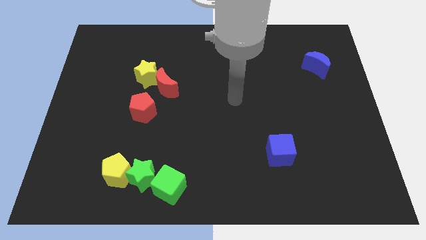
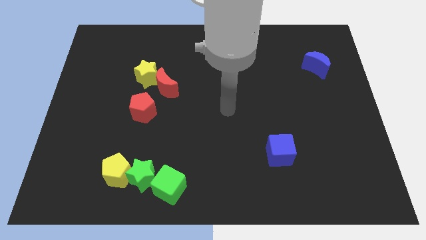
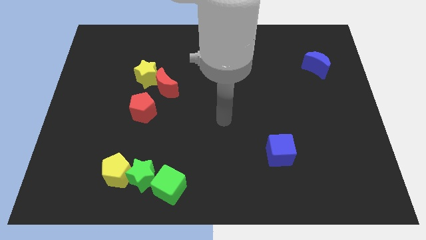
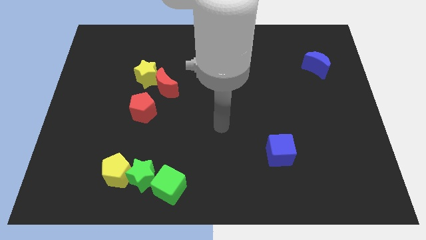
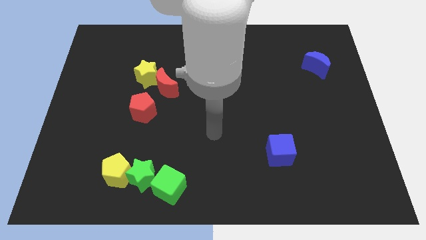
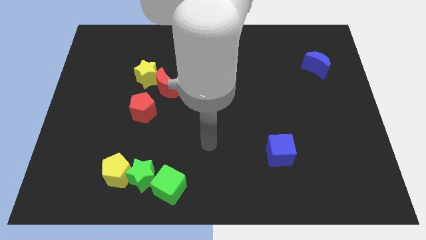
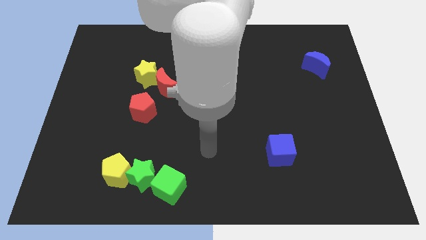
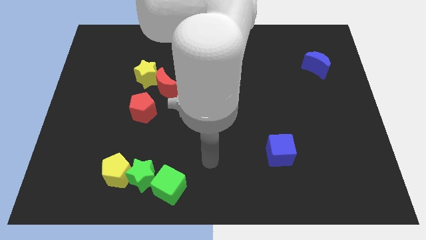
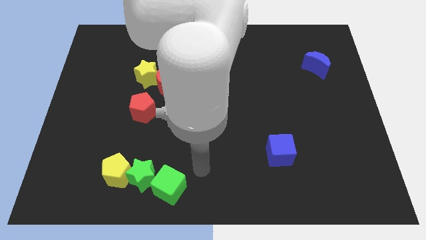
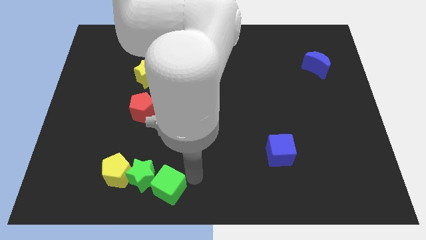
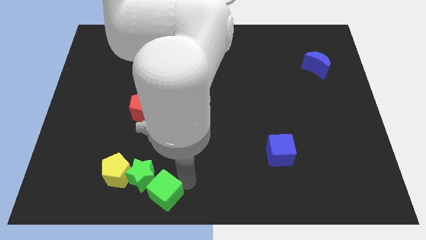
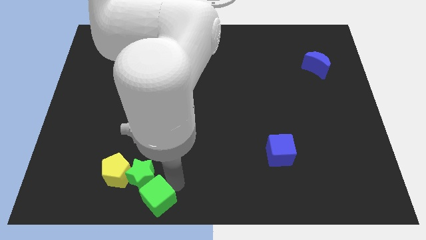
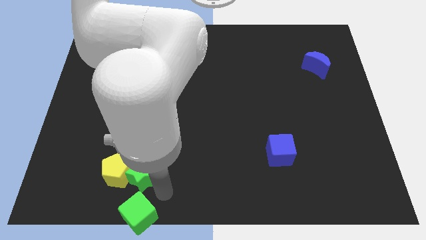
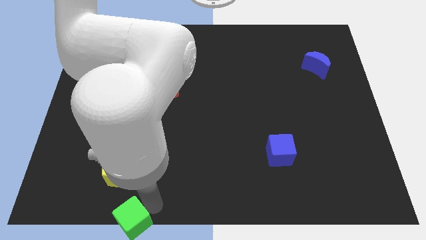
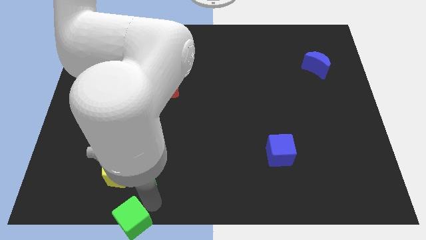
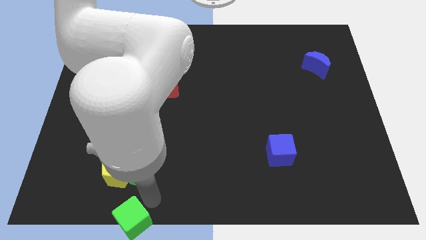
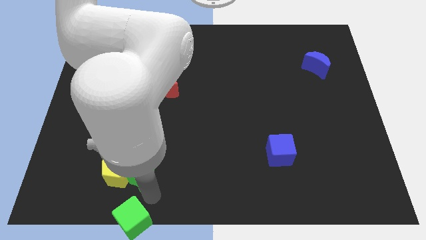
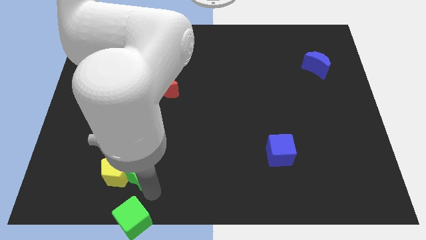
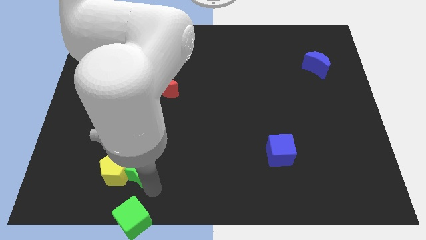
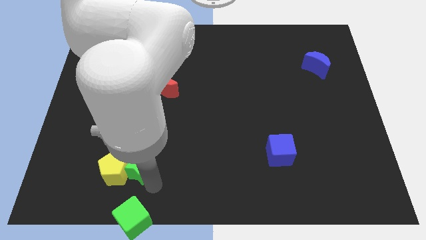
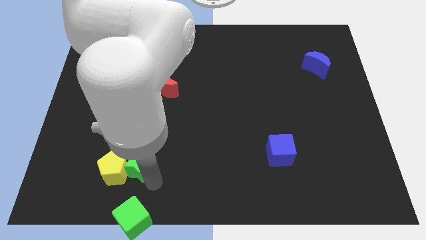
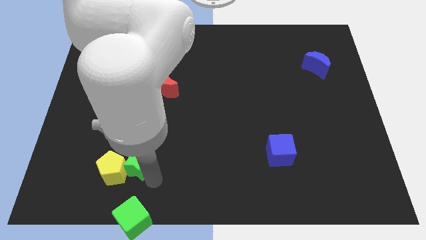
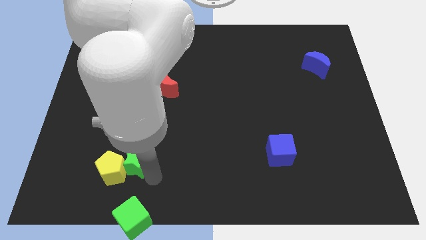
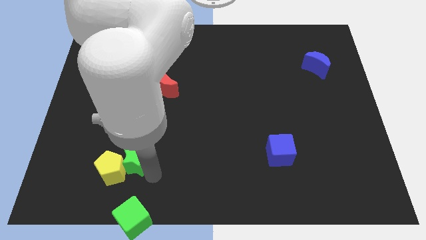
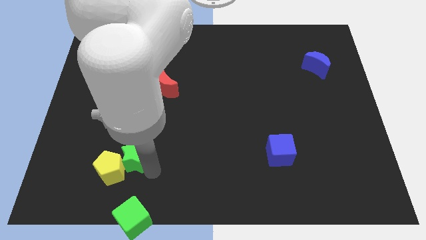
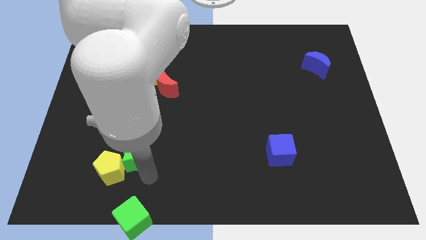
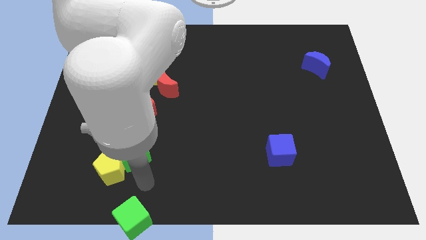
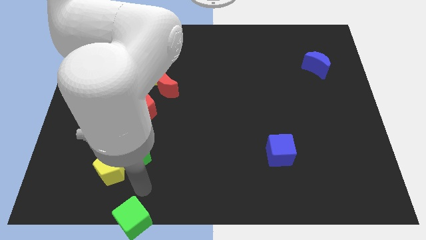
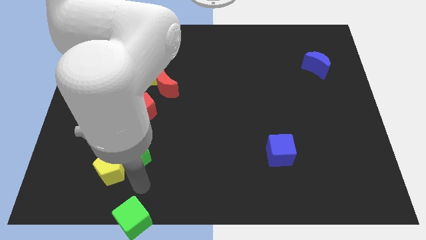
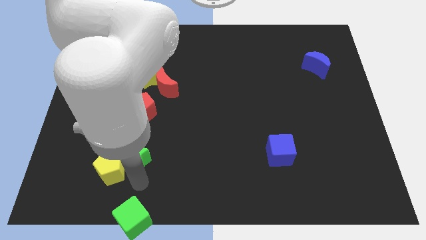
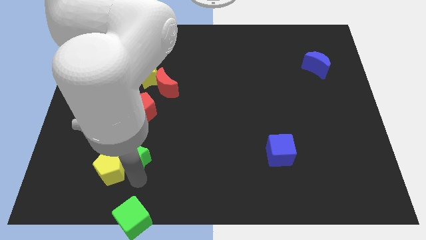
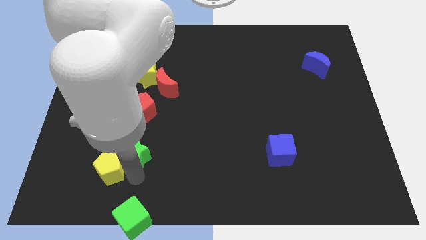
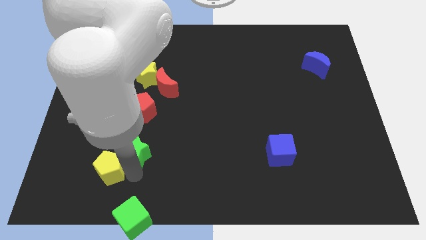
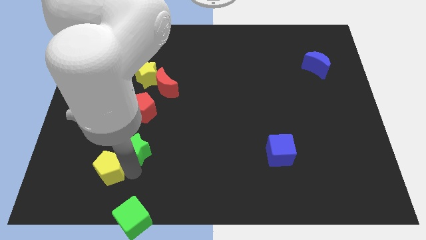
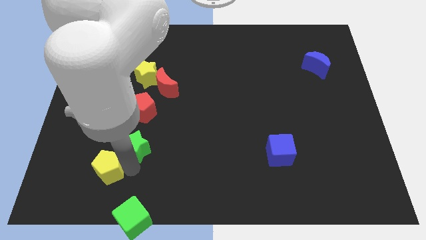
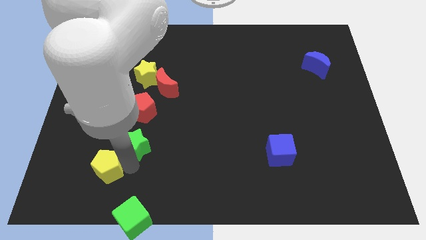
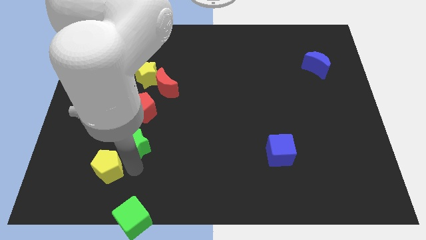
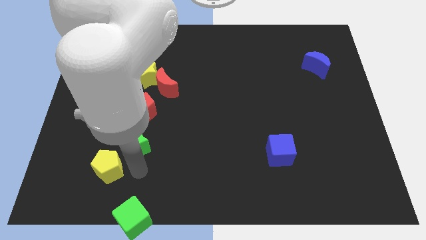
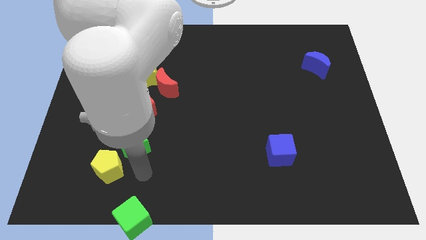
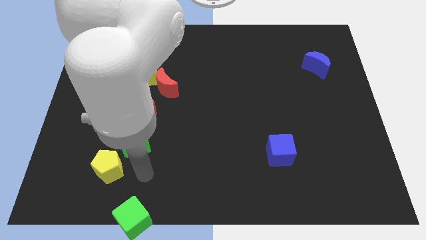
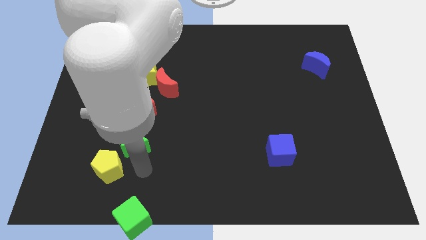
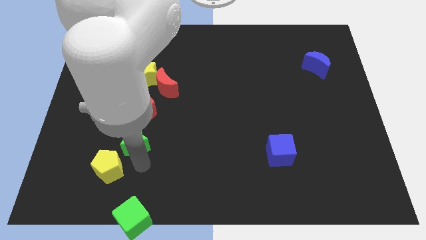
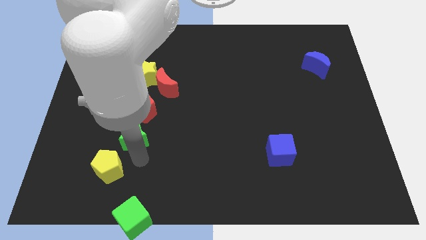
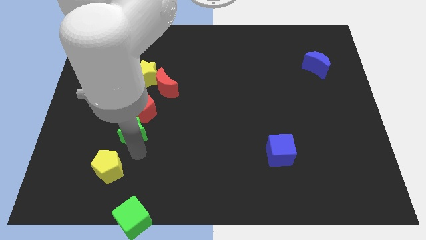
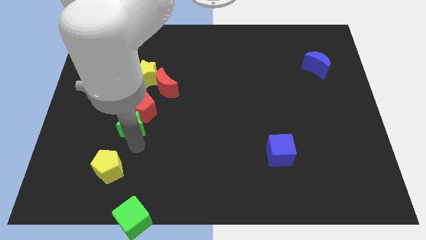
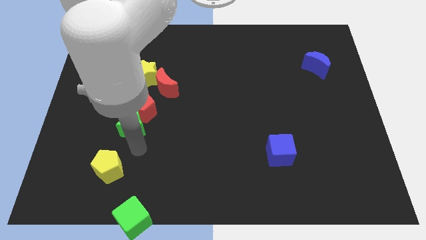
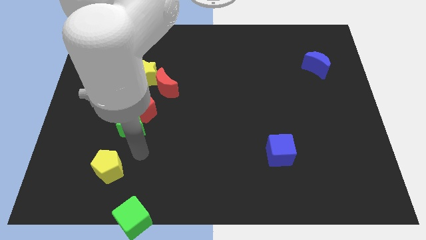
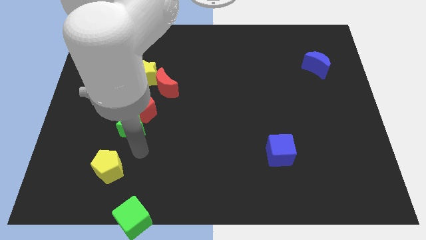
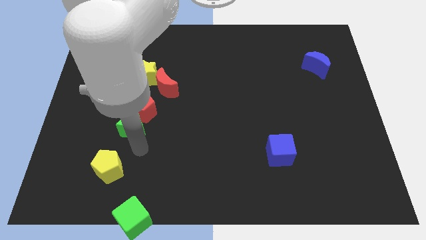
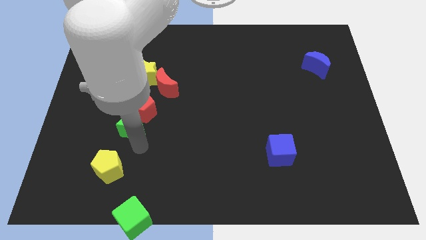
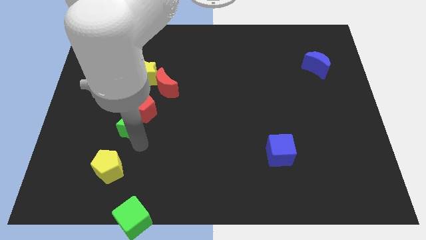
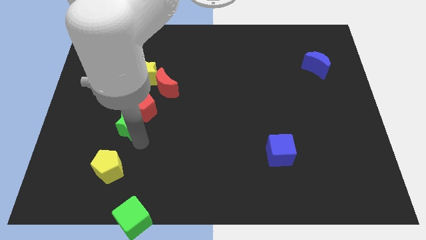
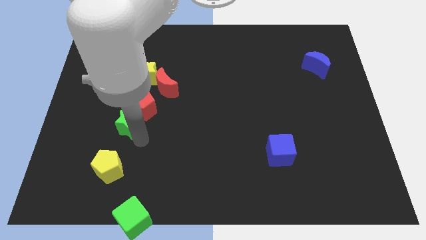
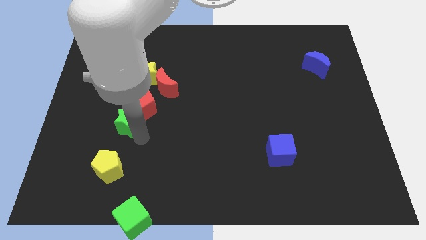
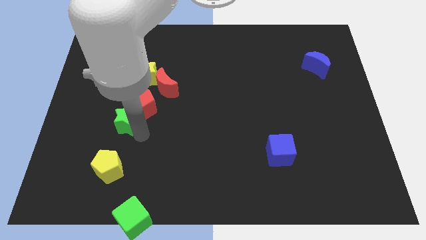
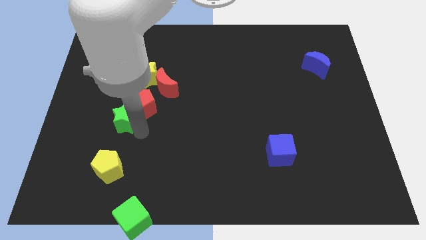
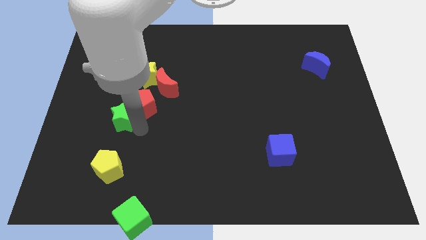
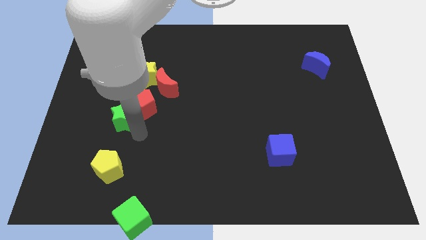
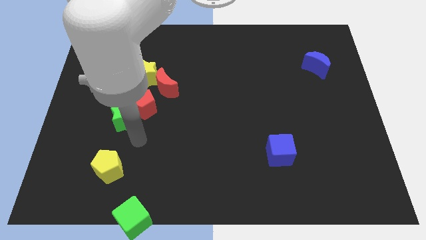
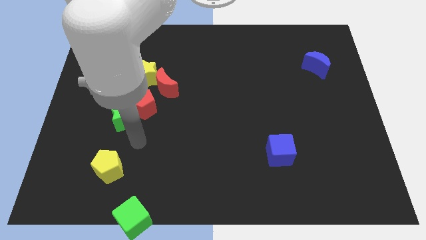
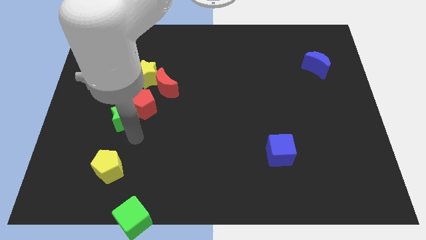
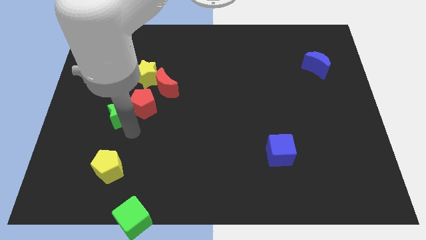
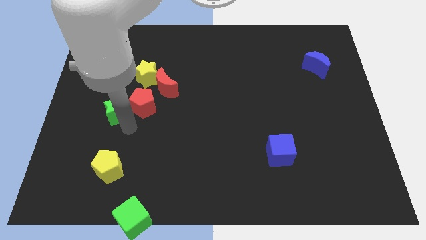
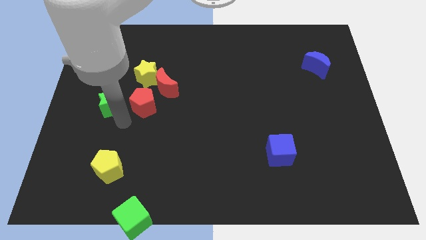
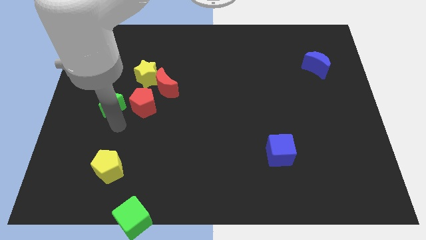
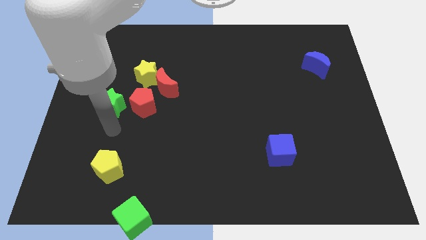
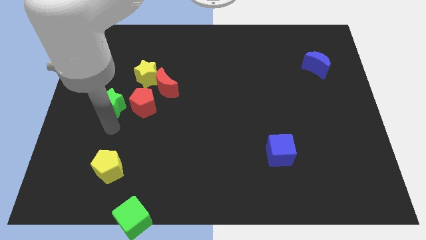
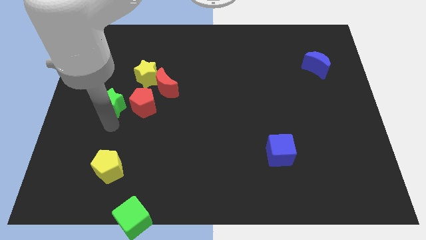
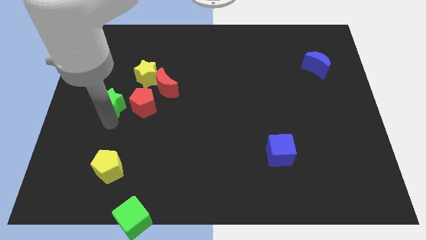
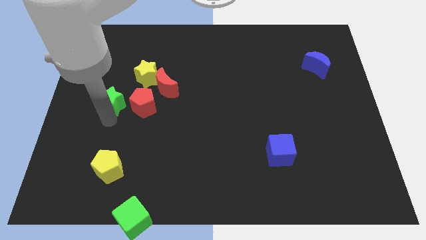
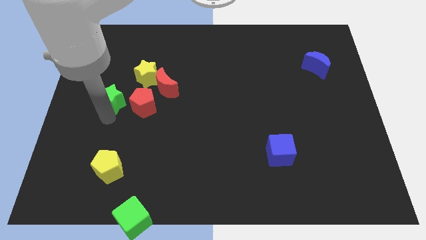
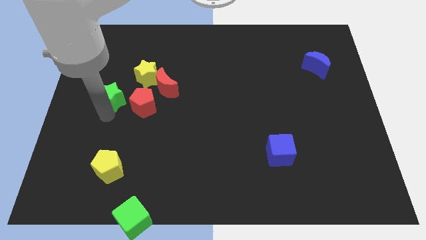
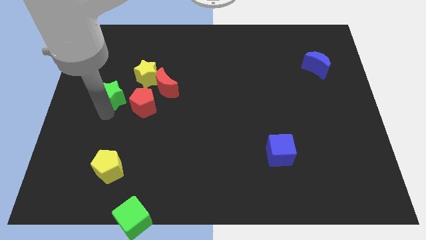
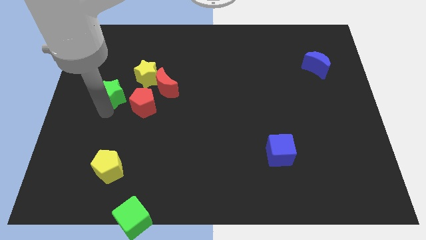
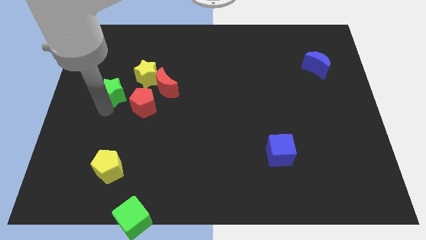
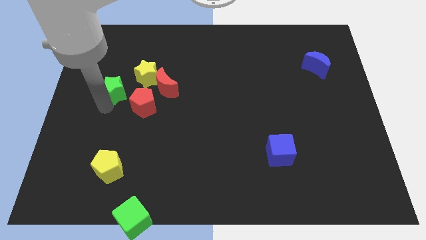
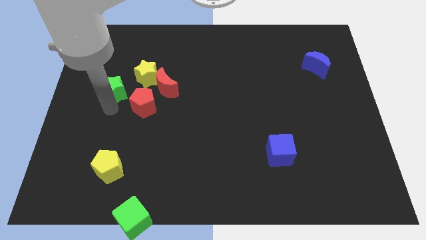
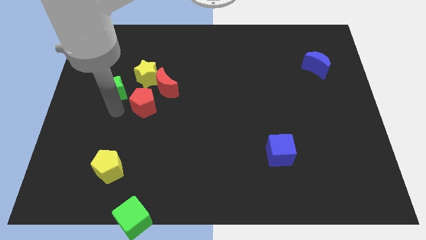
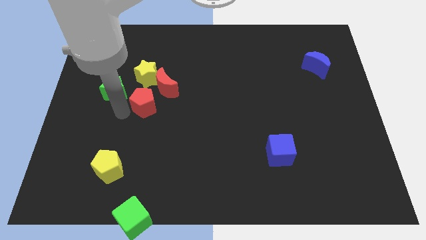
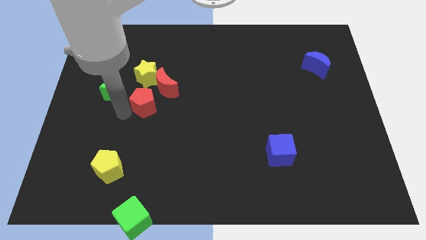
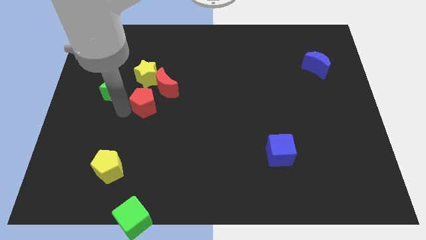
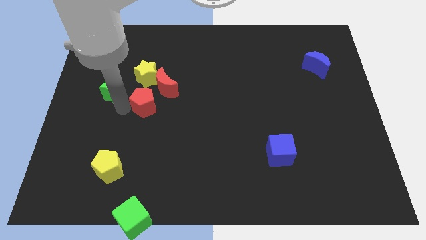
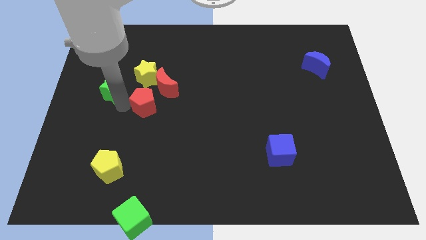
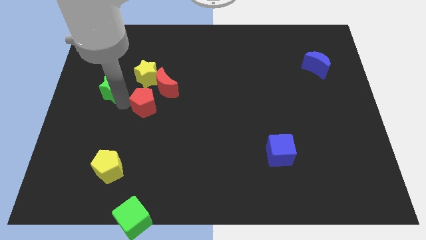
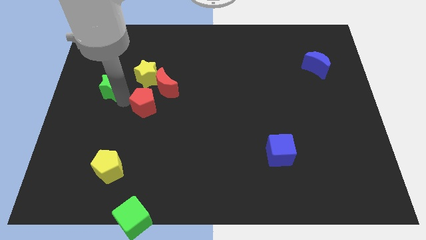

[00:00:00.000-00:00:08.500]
slide the green star to the left side of the yellow star
